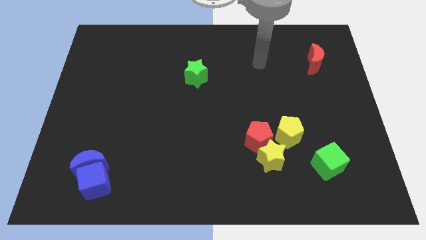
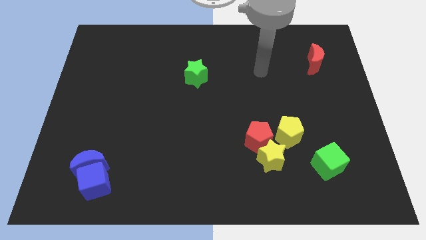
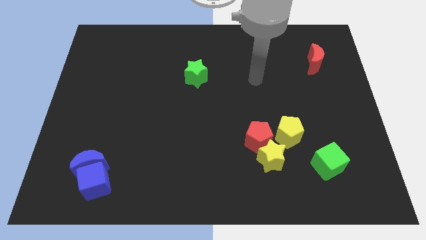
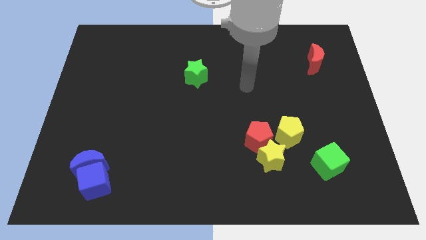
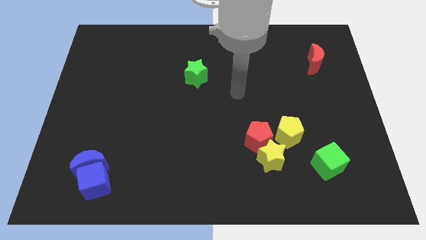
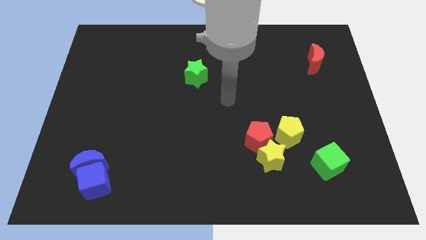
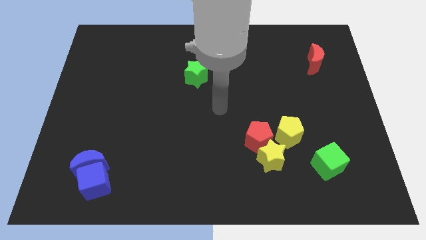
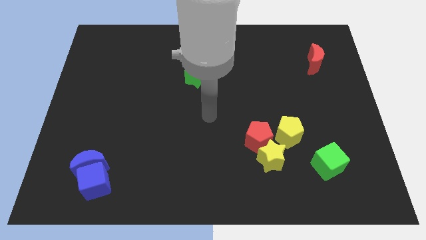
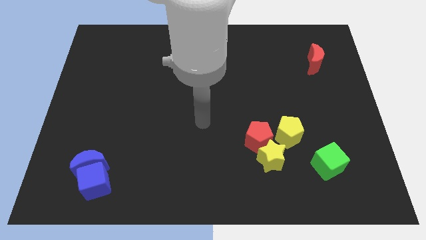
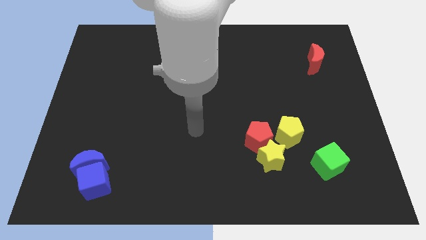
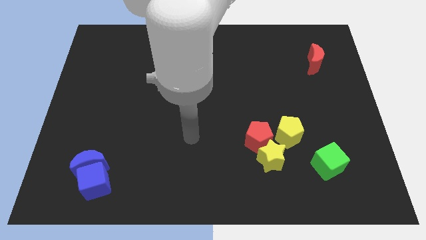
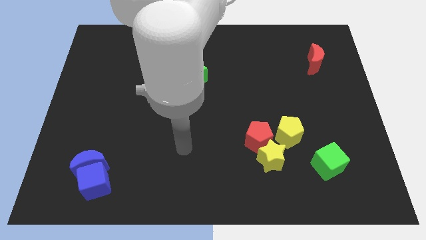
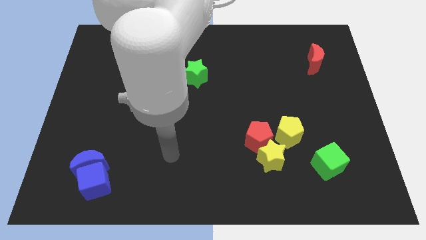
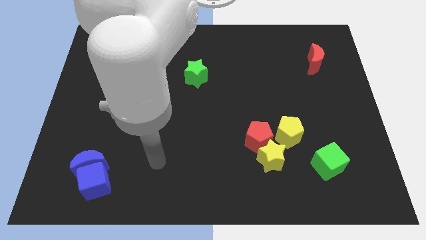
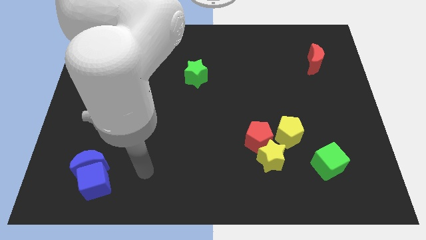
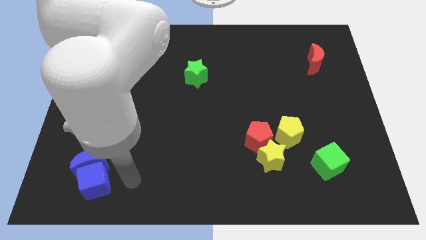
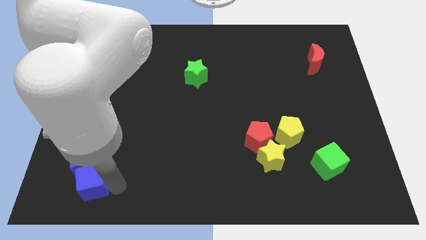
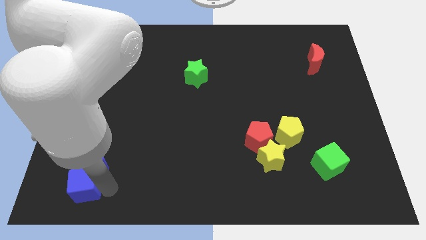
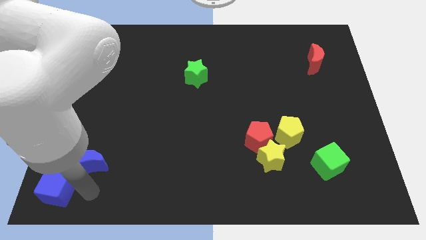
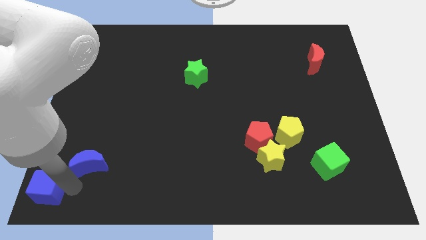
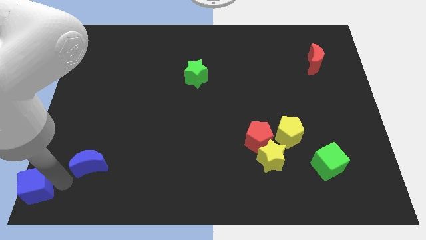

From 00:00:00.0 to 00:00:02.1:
separate the blue moon from the blue cube

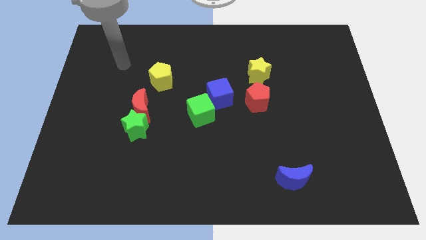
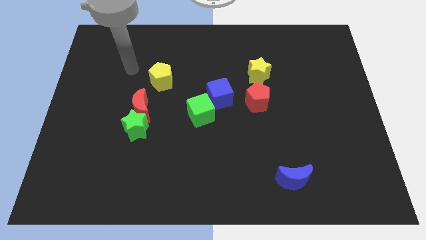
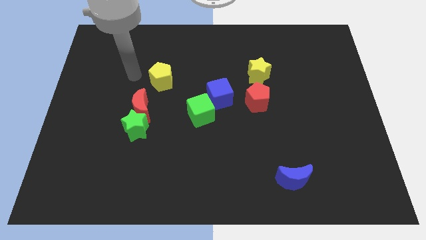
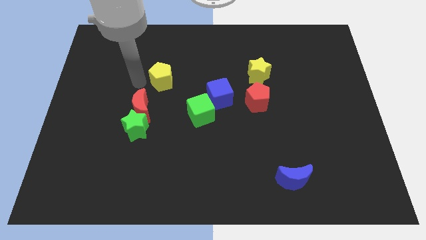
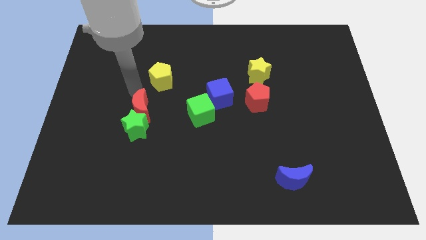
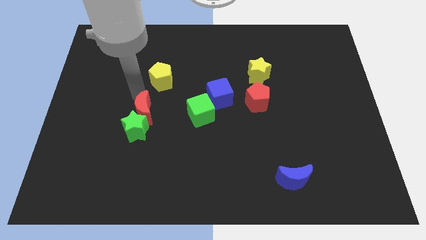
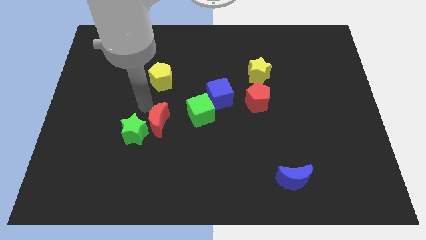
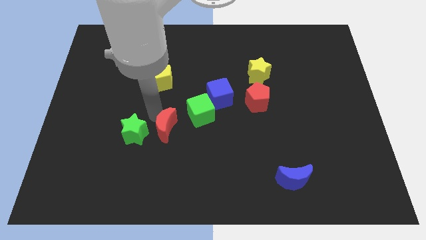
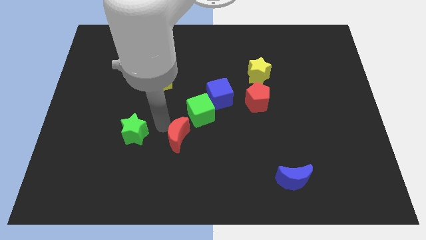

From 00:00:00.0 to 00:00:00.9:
separate the green star from the red moon

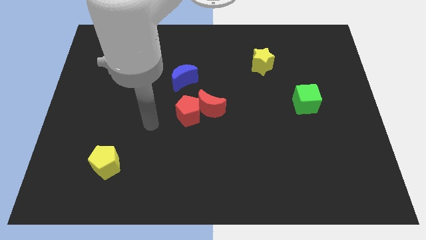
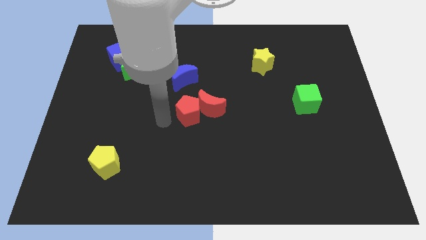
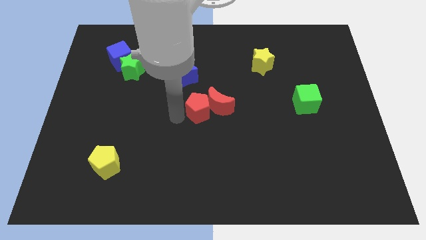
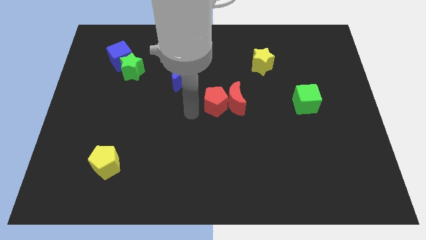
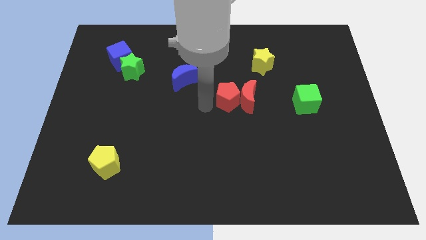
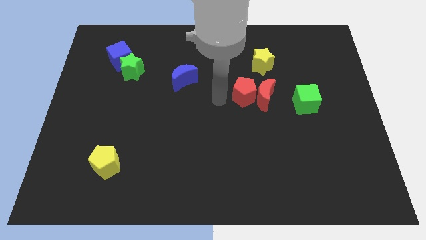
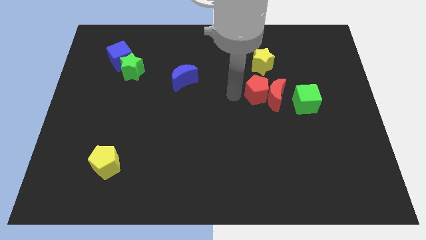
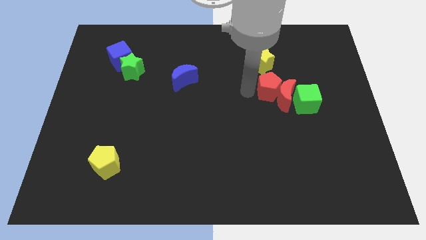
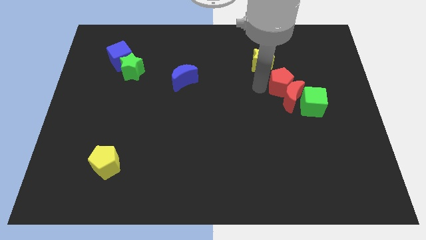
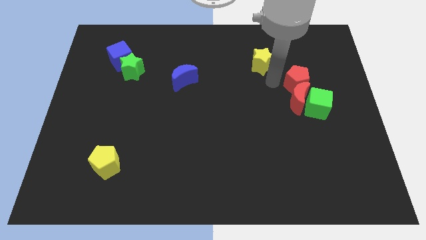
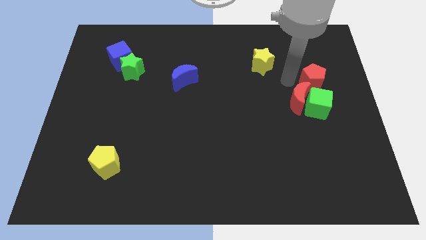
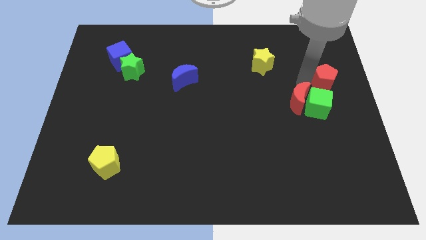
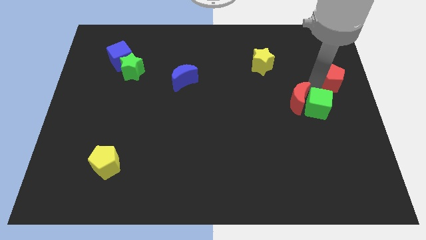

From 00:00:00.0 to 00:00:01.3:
move the red moon away from the red pentagon

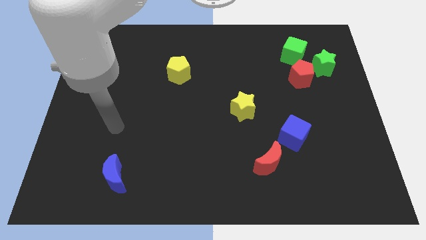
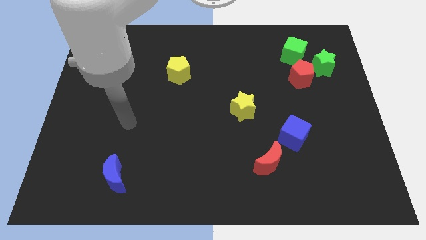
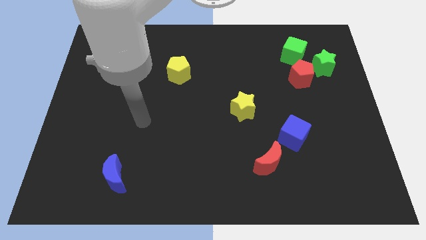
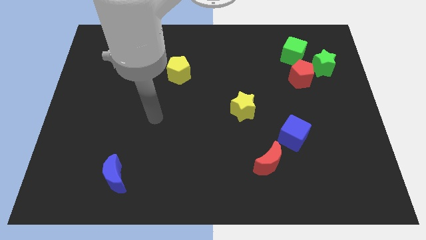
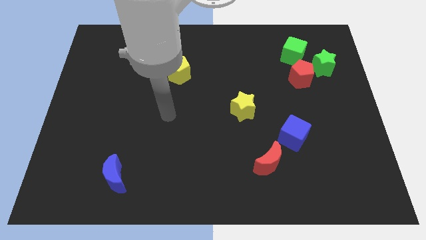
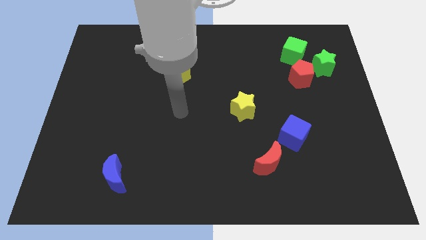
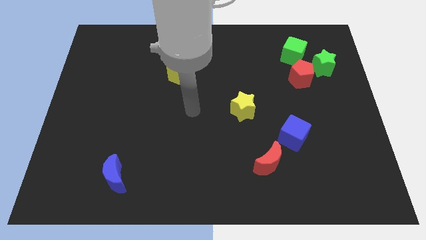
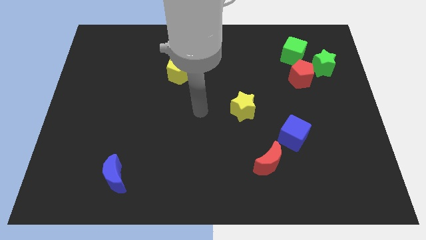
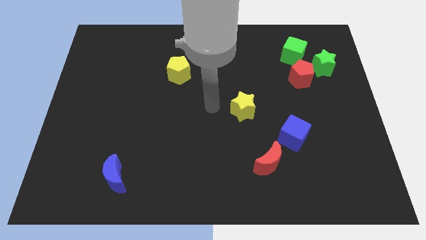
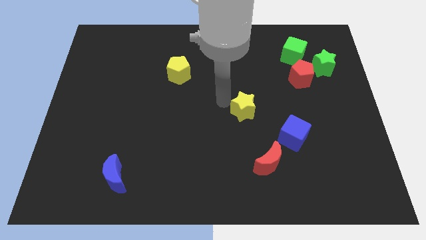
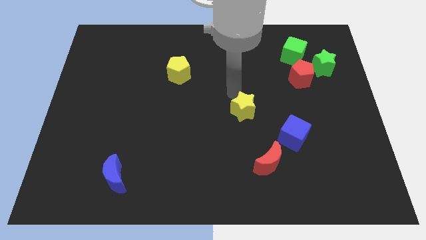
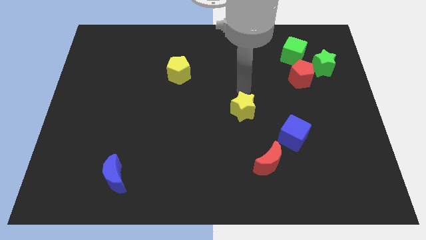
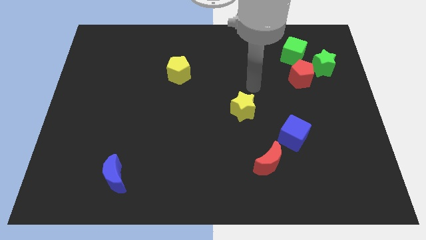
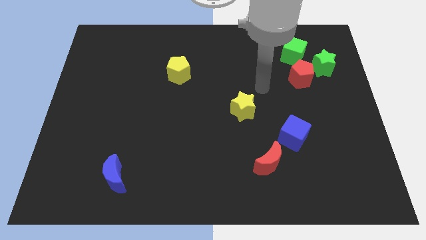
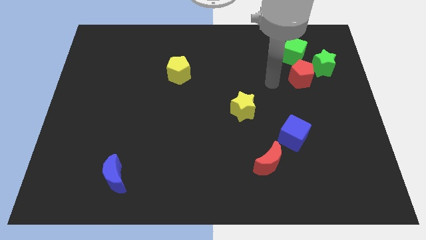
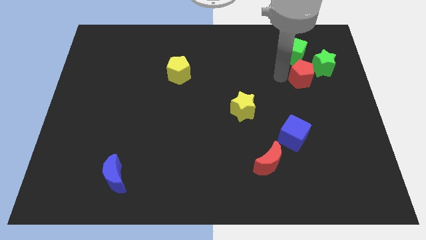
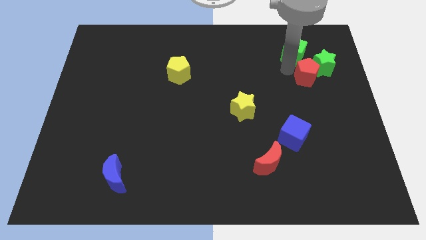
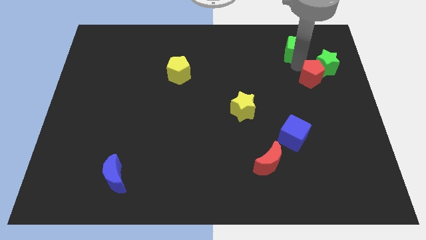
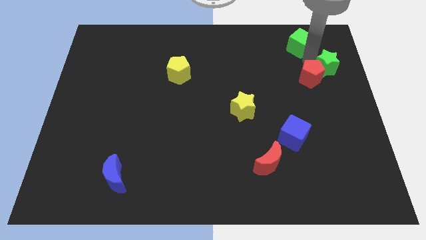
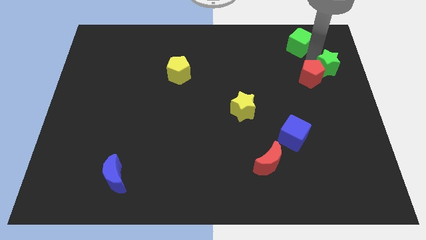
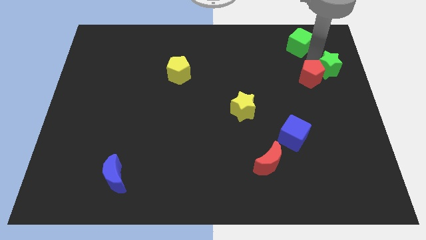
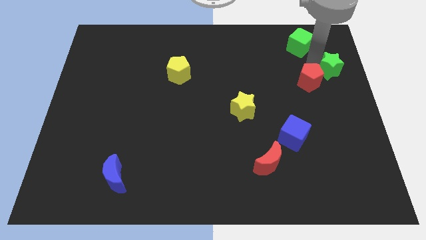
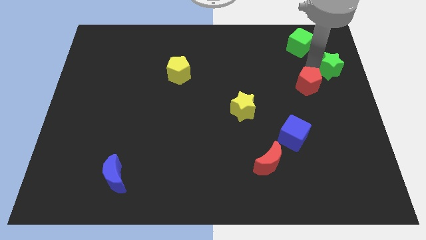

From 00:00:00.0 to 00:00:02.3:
separate the red pentagon from the green star and green cube

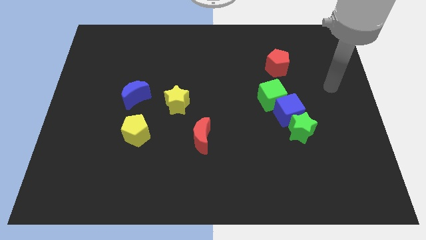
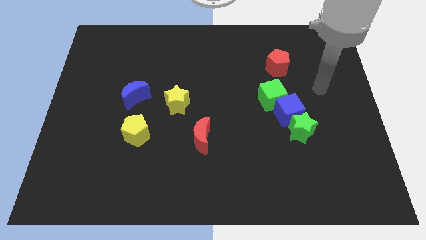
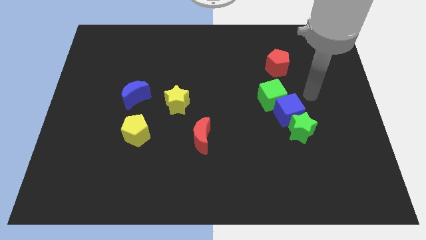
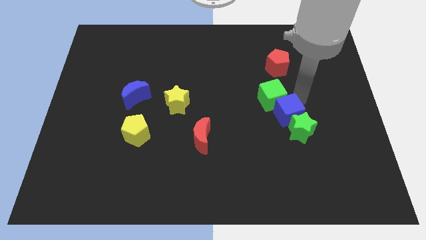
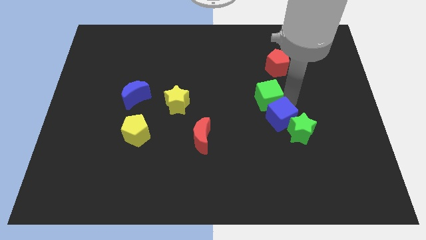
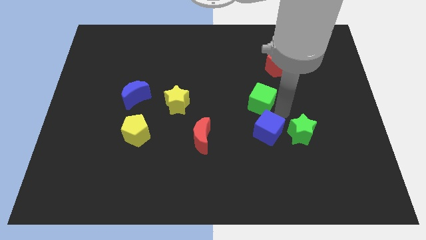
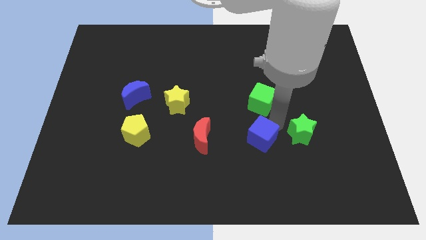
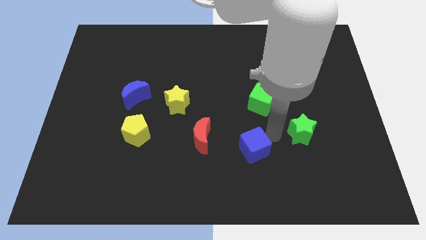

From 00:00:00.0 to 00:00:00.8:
pull the green star apart from the blue cube

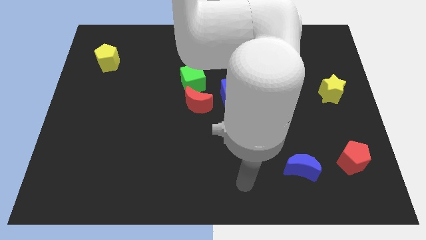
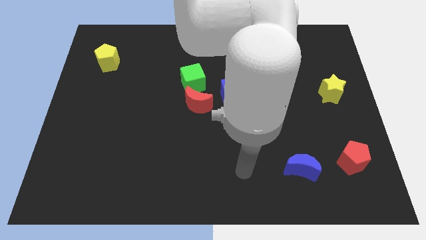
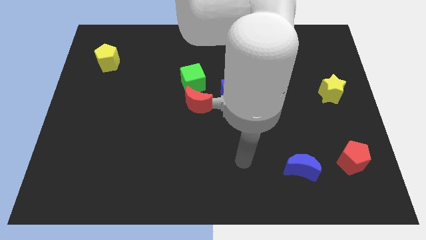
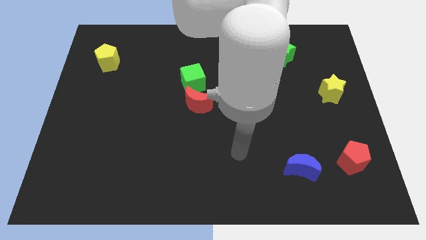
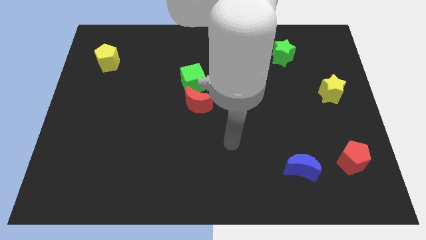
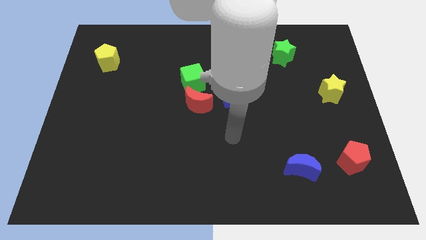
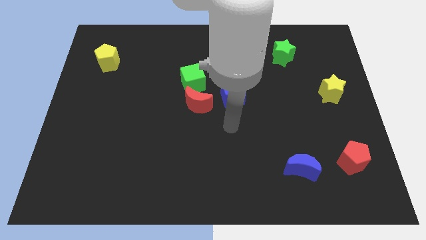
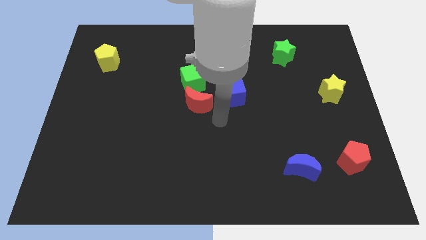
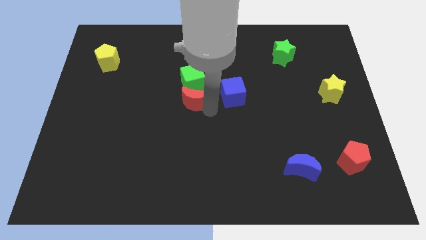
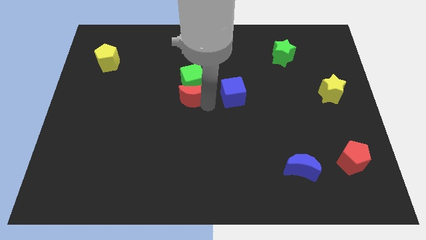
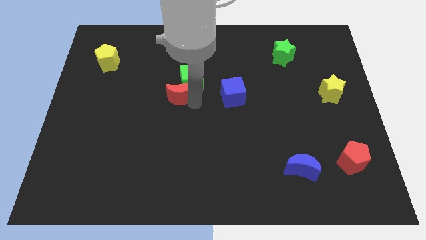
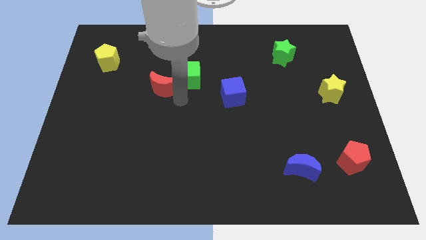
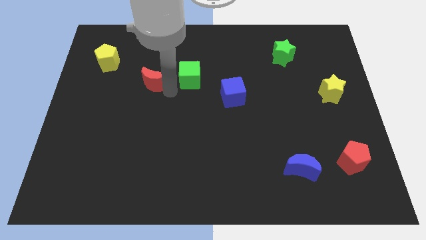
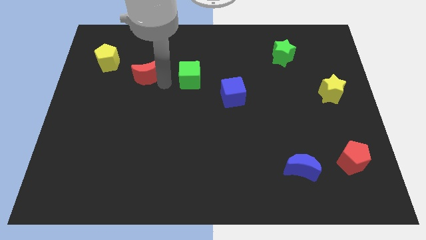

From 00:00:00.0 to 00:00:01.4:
separate the green cube from the red moon

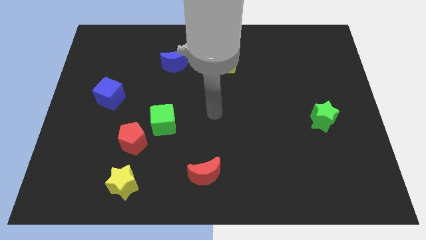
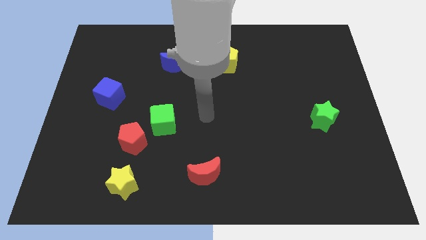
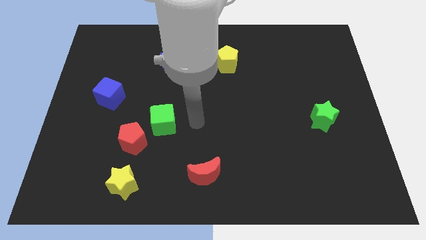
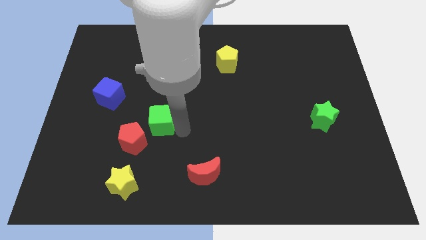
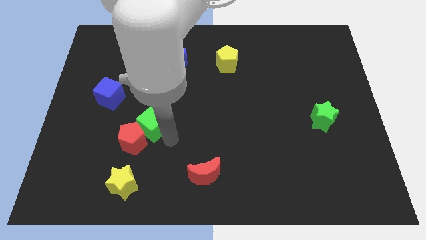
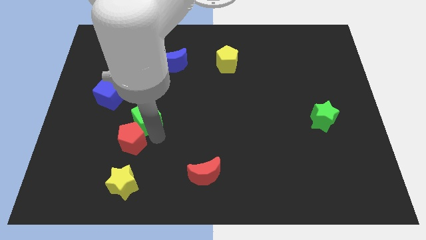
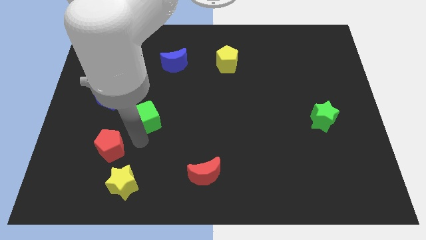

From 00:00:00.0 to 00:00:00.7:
separate the green cube from the red pentagon
